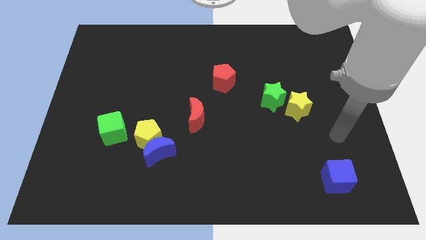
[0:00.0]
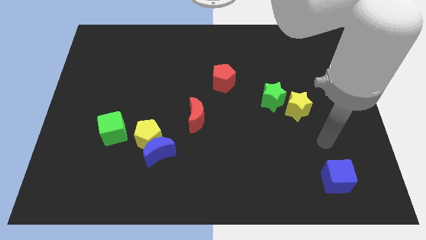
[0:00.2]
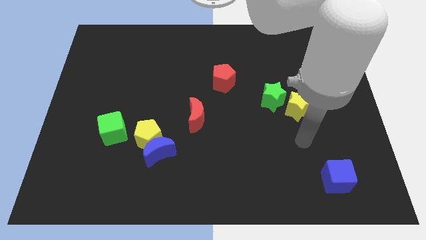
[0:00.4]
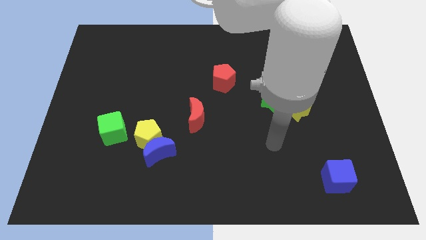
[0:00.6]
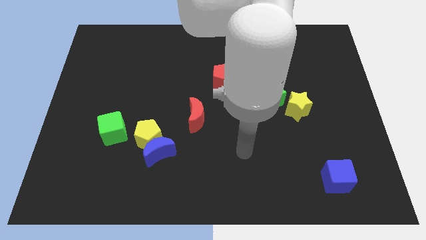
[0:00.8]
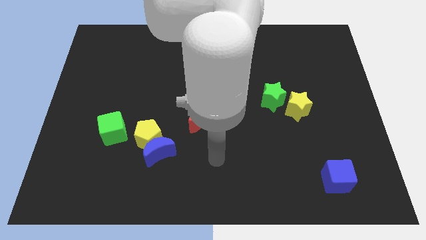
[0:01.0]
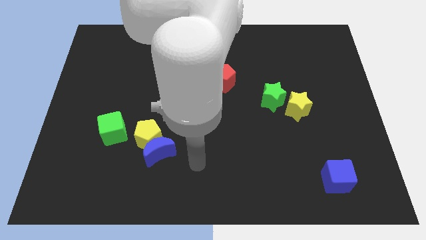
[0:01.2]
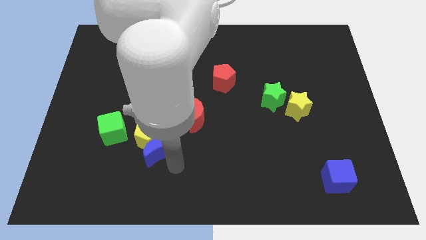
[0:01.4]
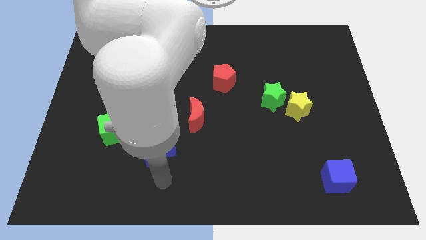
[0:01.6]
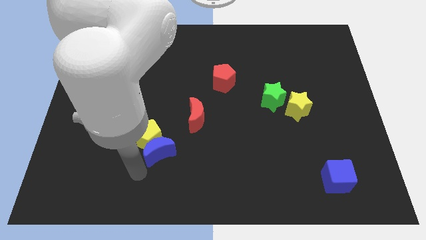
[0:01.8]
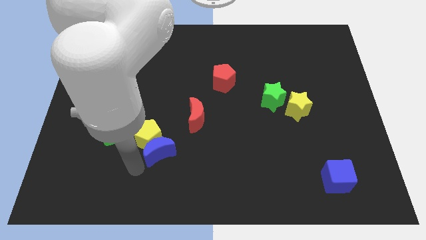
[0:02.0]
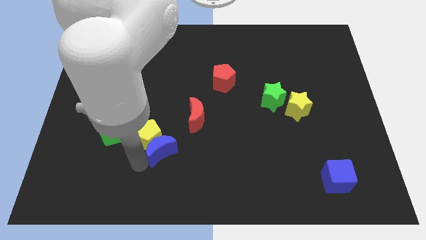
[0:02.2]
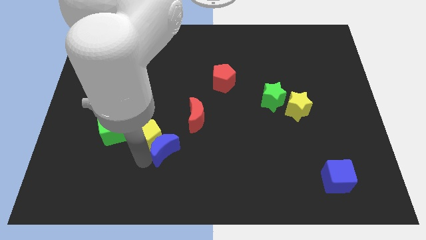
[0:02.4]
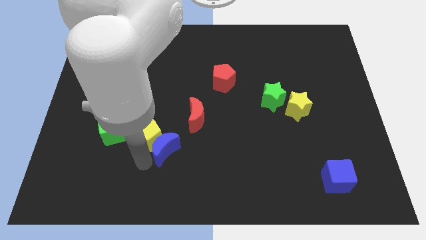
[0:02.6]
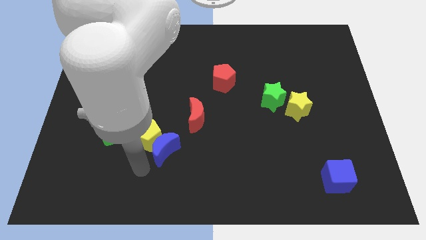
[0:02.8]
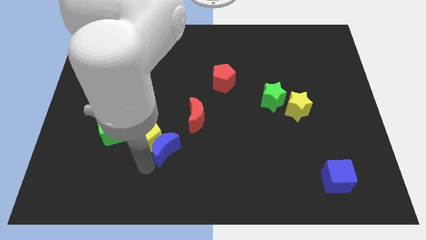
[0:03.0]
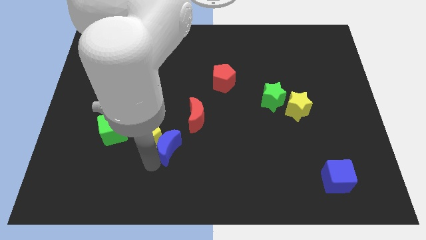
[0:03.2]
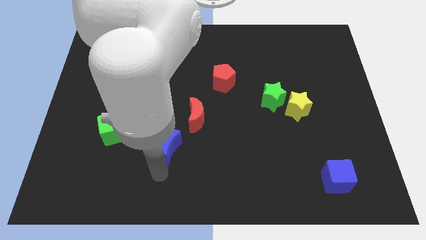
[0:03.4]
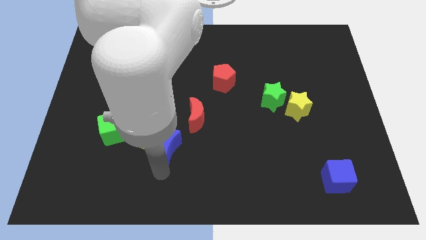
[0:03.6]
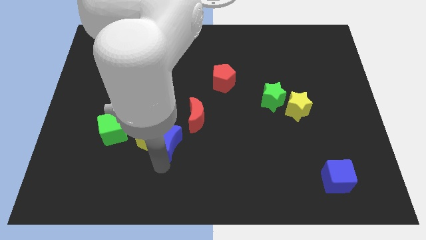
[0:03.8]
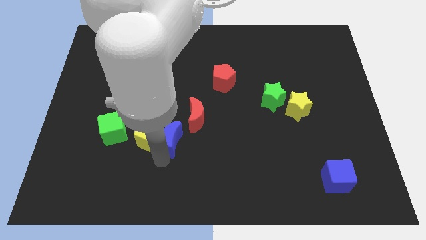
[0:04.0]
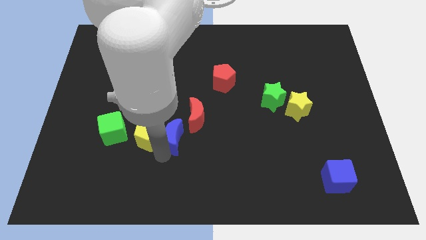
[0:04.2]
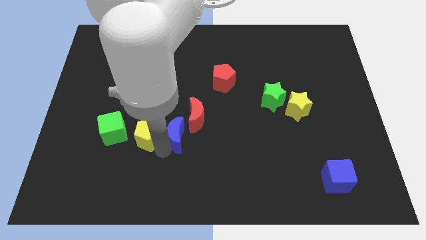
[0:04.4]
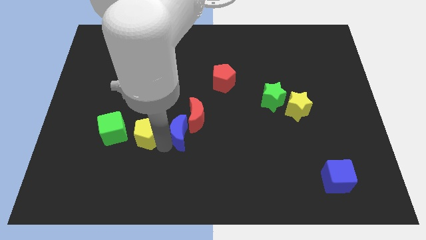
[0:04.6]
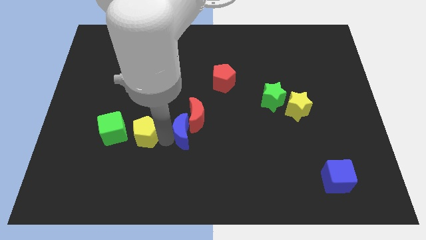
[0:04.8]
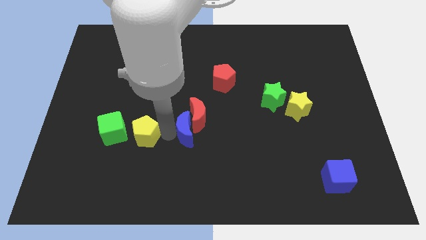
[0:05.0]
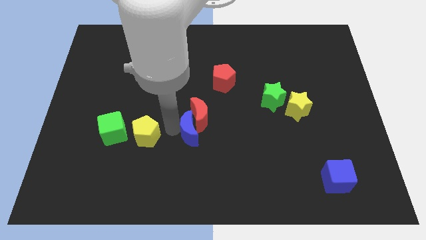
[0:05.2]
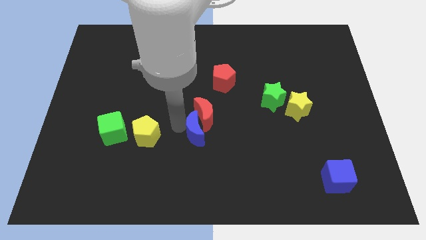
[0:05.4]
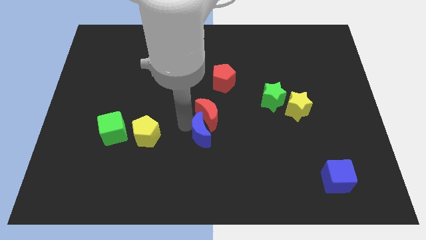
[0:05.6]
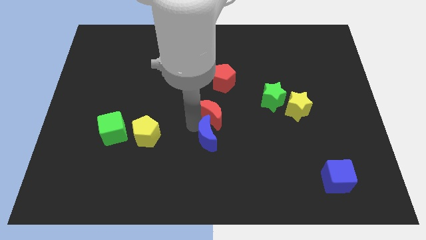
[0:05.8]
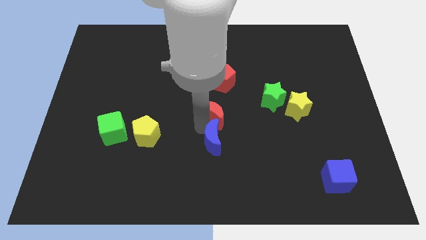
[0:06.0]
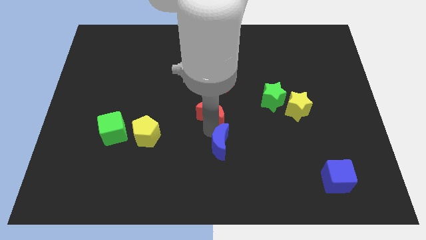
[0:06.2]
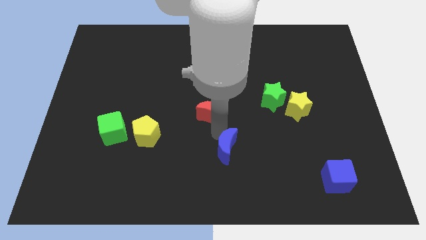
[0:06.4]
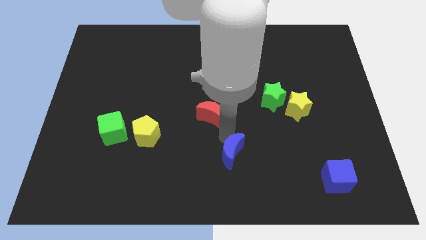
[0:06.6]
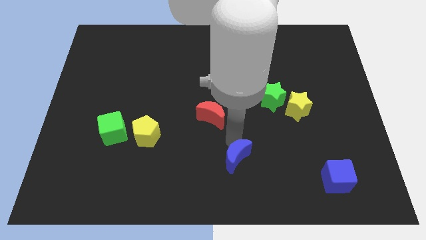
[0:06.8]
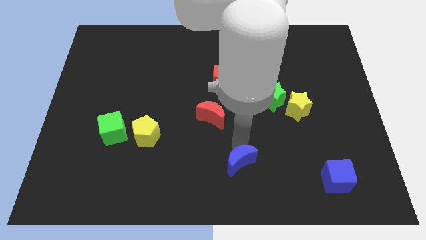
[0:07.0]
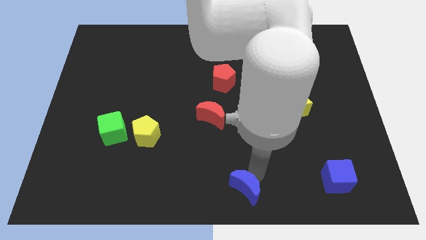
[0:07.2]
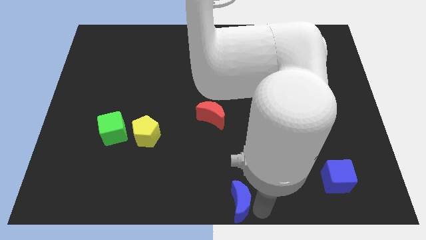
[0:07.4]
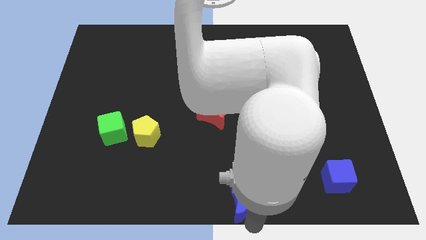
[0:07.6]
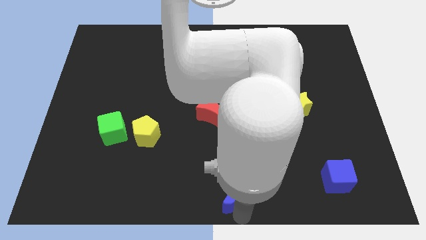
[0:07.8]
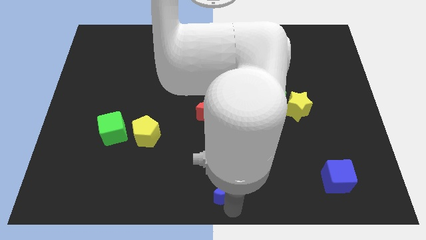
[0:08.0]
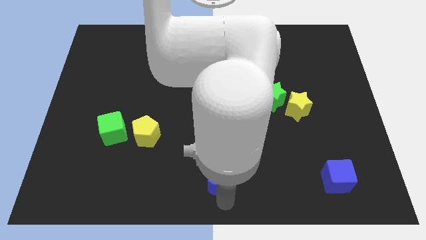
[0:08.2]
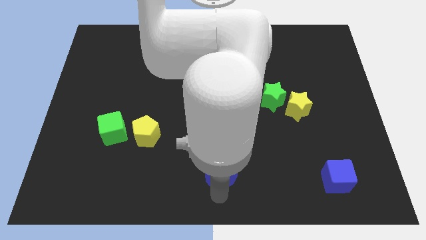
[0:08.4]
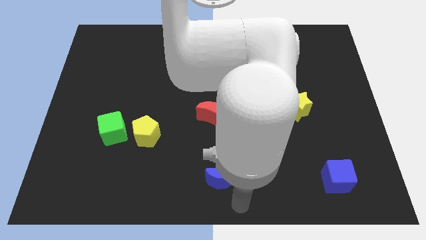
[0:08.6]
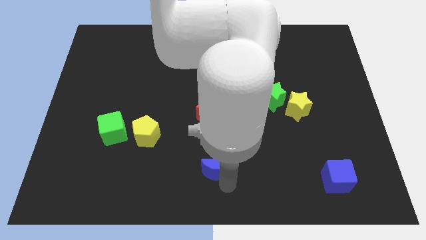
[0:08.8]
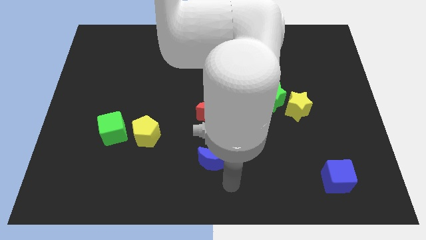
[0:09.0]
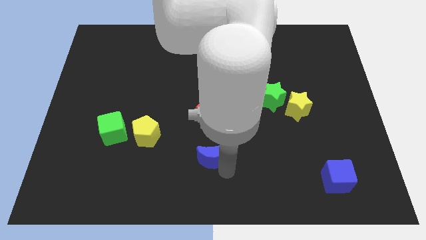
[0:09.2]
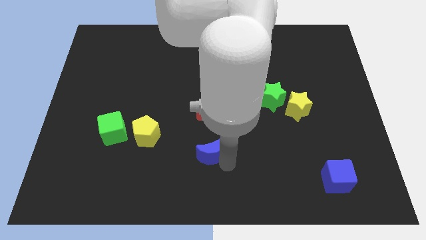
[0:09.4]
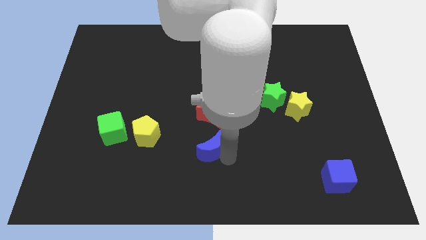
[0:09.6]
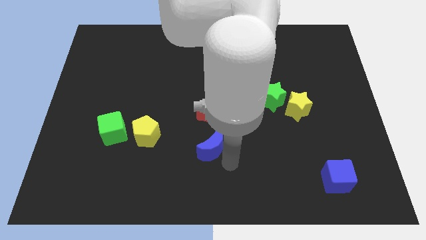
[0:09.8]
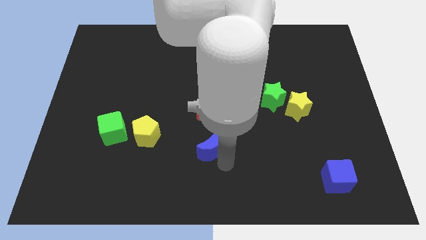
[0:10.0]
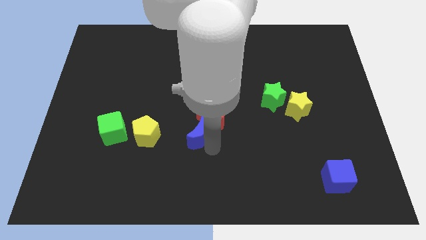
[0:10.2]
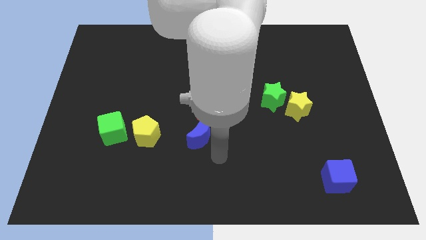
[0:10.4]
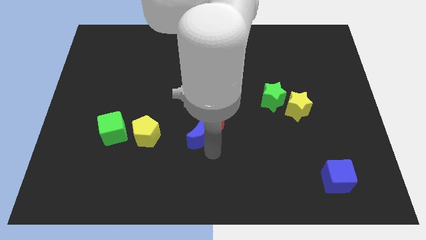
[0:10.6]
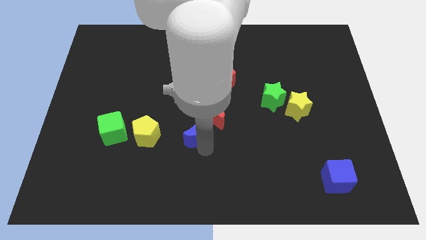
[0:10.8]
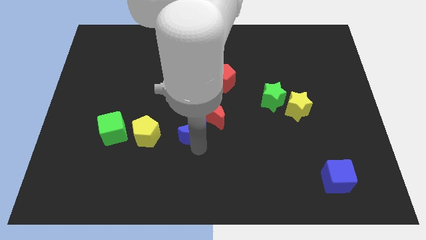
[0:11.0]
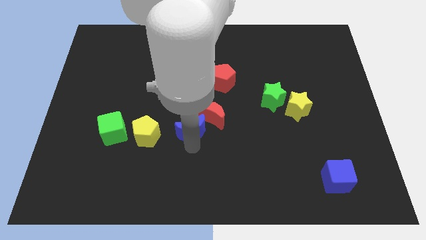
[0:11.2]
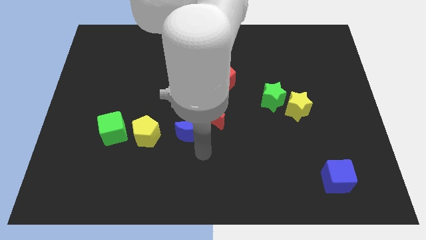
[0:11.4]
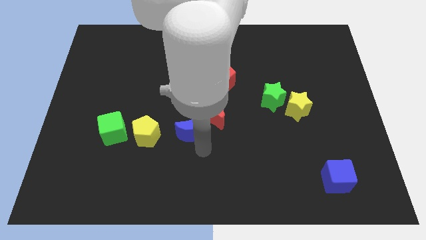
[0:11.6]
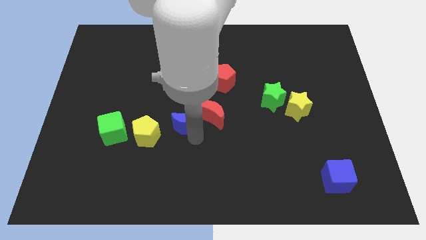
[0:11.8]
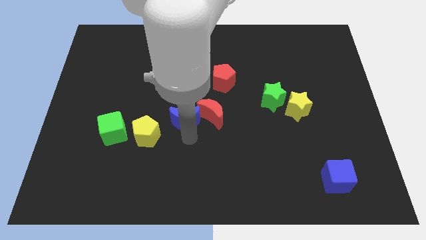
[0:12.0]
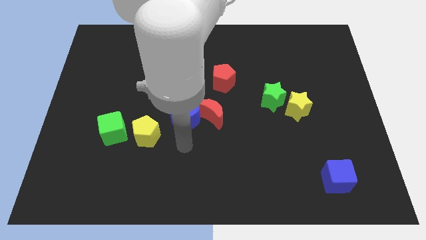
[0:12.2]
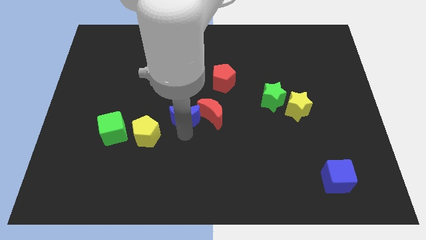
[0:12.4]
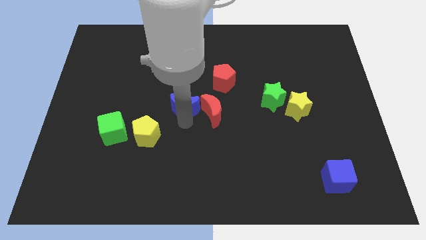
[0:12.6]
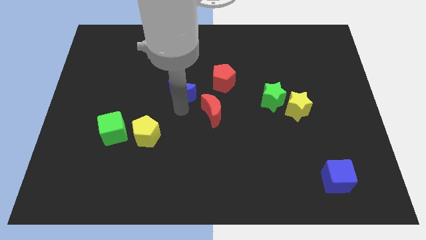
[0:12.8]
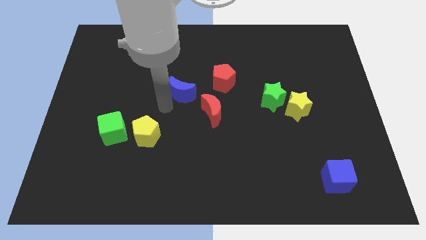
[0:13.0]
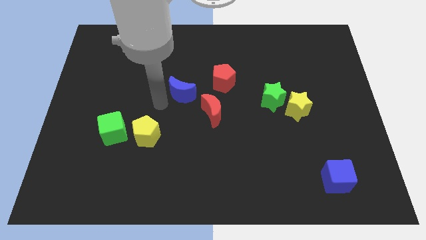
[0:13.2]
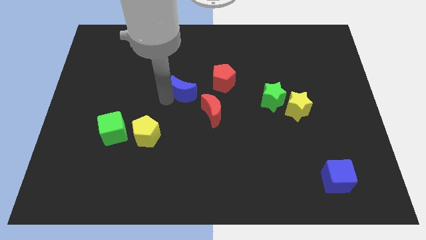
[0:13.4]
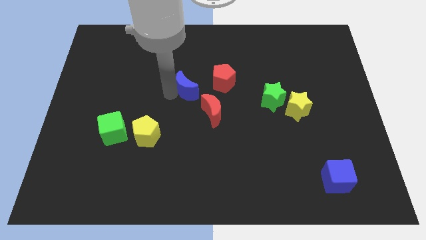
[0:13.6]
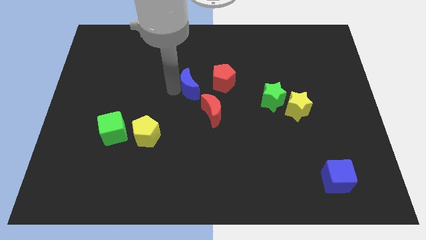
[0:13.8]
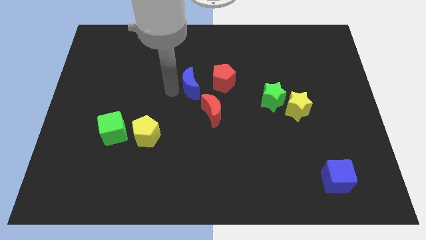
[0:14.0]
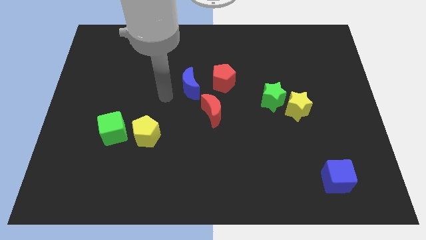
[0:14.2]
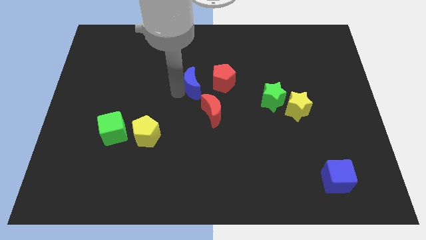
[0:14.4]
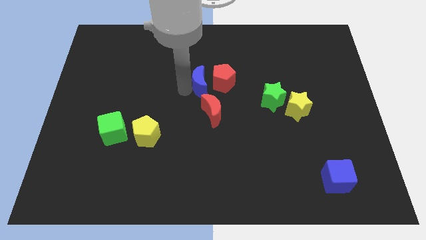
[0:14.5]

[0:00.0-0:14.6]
slide the blue moon to the top side of the red moon

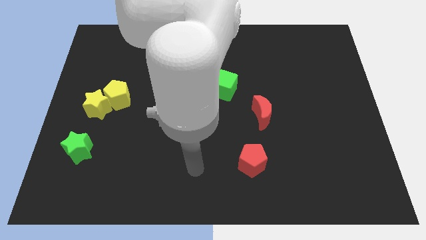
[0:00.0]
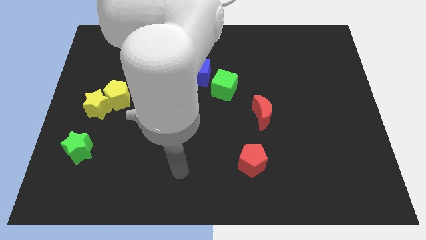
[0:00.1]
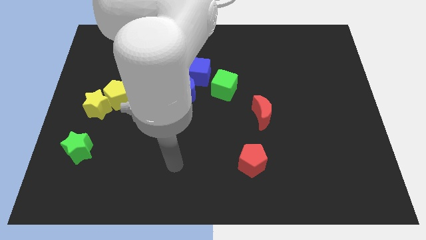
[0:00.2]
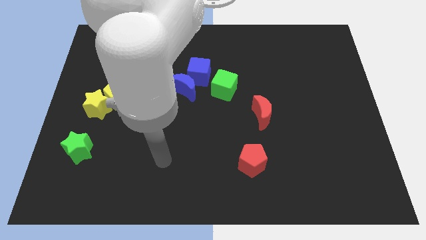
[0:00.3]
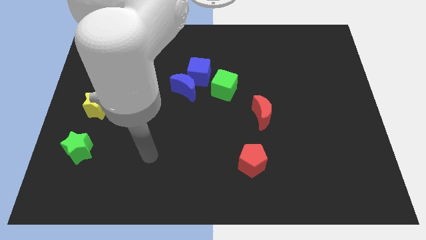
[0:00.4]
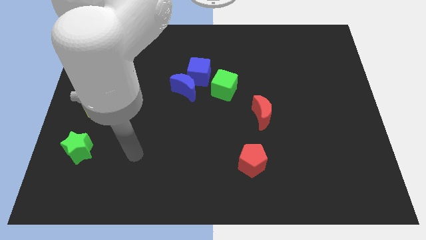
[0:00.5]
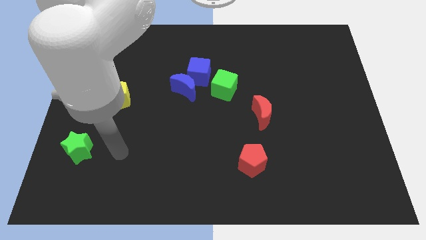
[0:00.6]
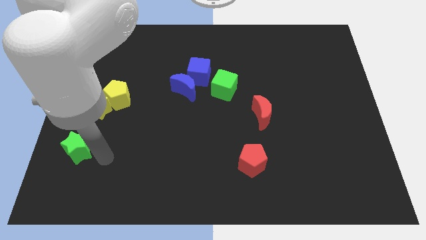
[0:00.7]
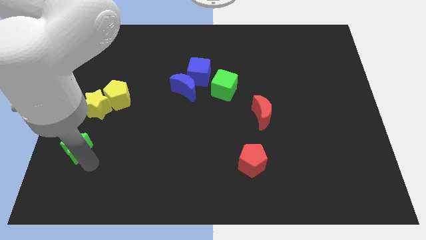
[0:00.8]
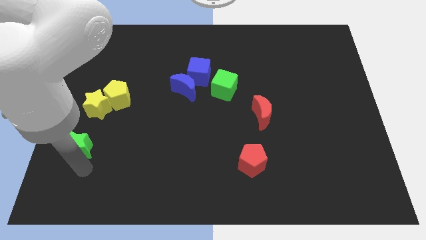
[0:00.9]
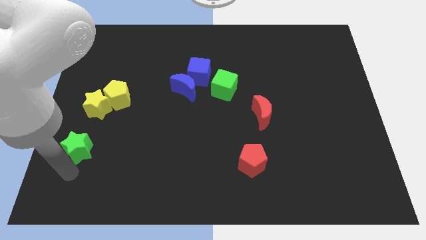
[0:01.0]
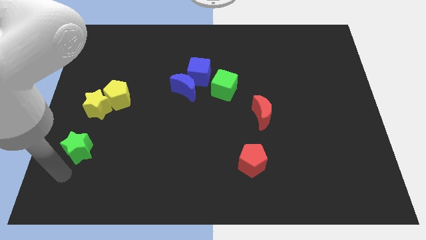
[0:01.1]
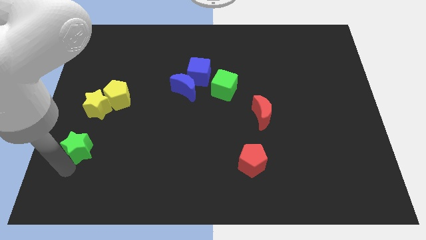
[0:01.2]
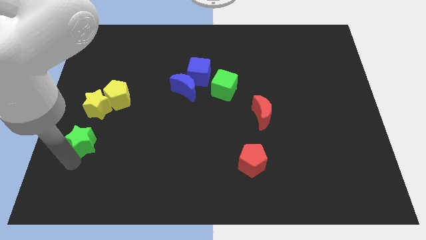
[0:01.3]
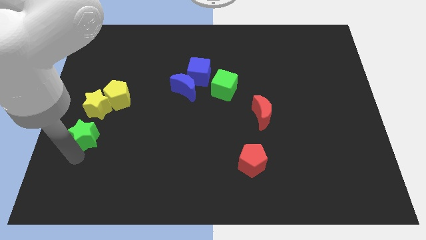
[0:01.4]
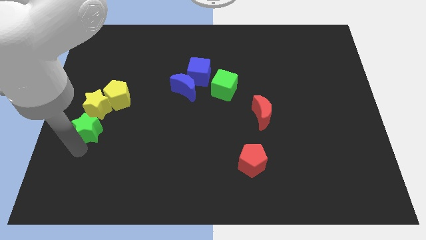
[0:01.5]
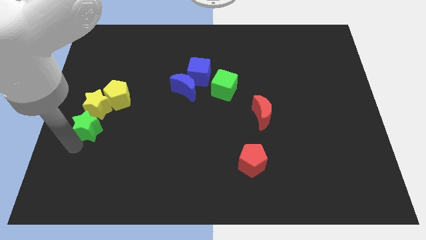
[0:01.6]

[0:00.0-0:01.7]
slide the green star to the bottom right of the yellow star
